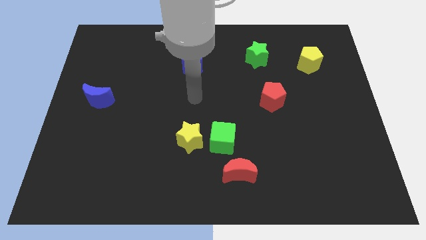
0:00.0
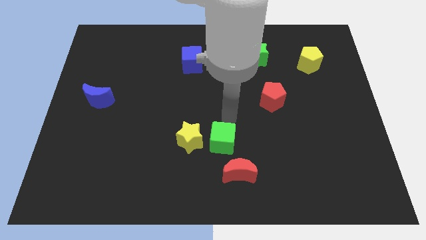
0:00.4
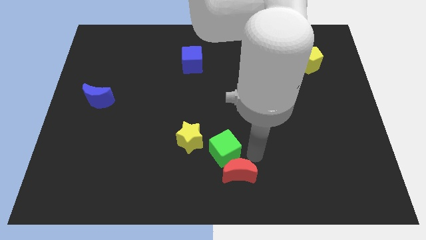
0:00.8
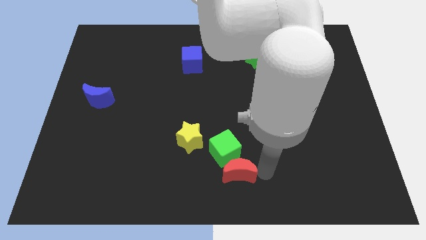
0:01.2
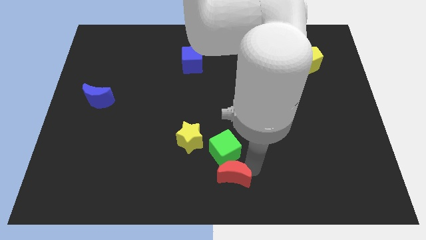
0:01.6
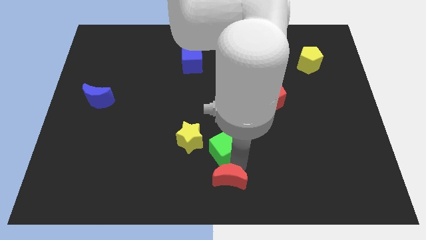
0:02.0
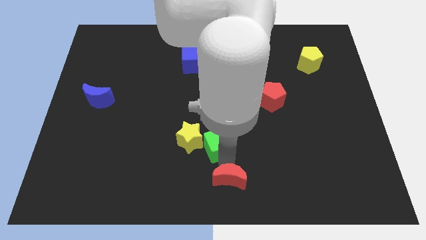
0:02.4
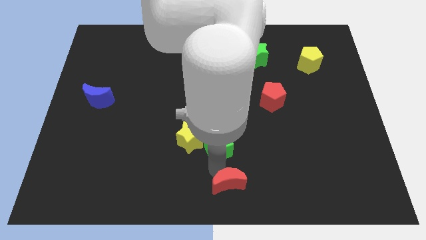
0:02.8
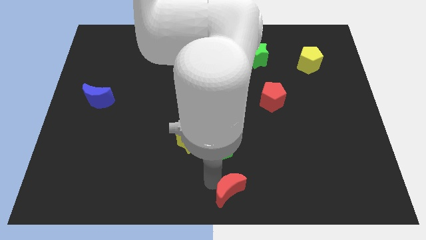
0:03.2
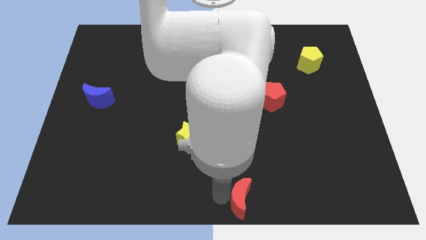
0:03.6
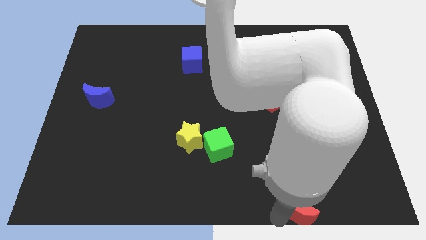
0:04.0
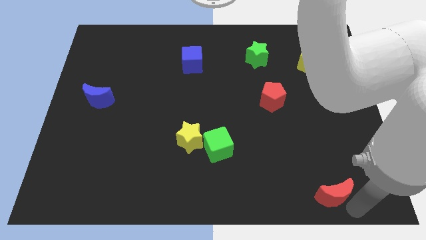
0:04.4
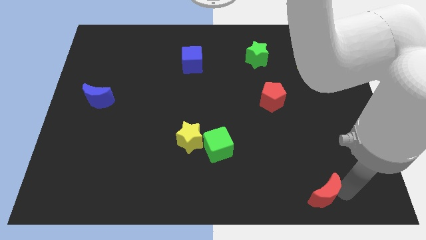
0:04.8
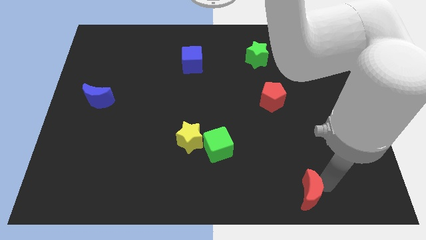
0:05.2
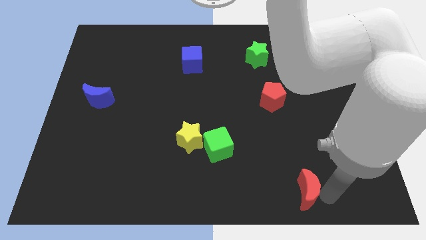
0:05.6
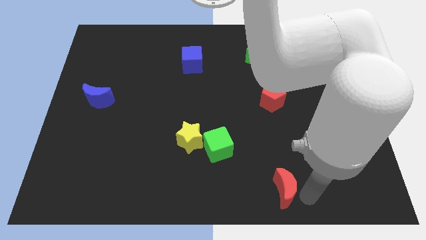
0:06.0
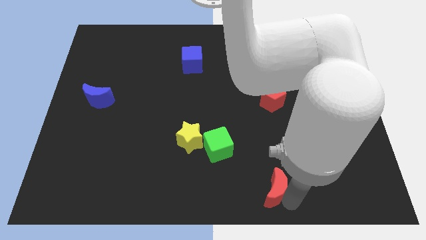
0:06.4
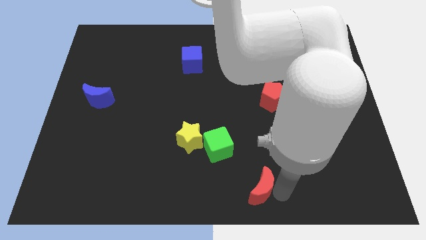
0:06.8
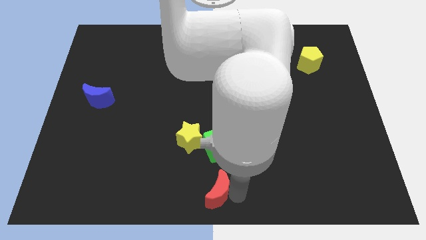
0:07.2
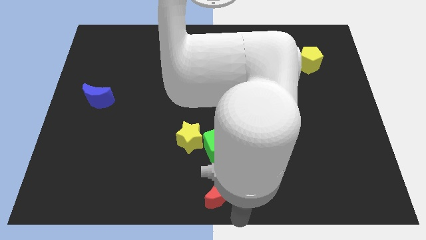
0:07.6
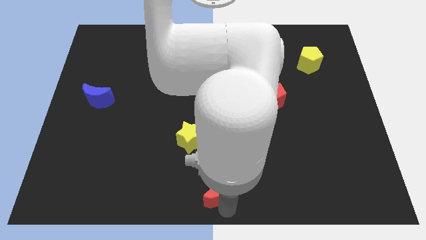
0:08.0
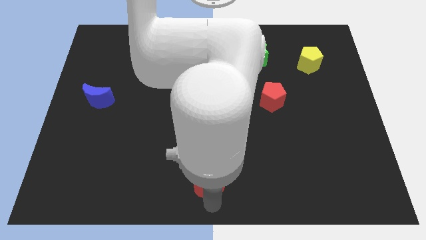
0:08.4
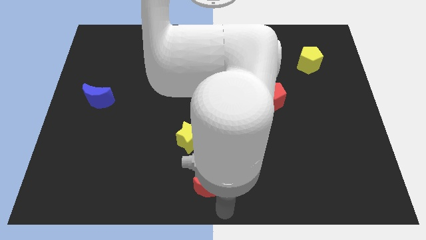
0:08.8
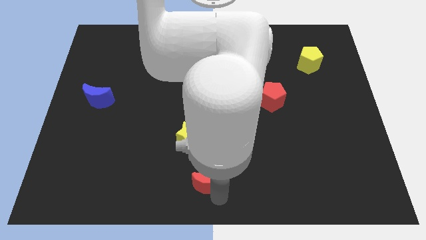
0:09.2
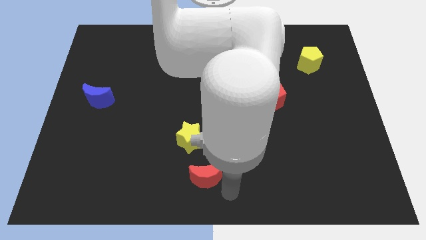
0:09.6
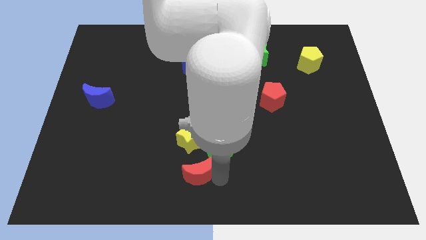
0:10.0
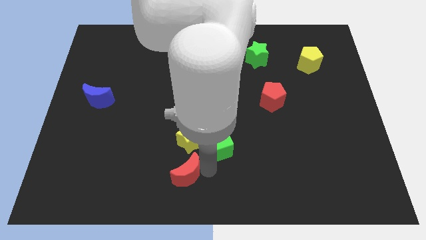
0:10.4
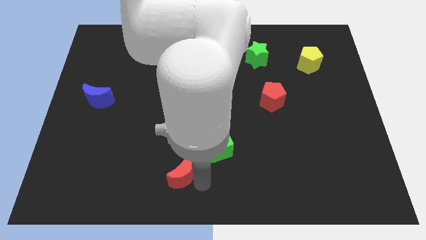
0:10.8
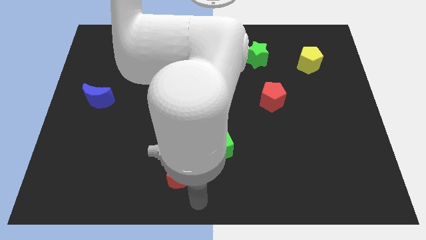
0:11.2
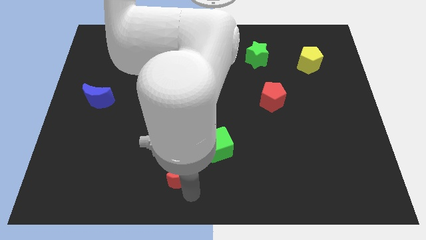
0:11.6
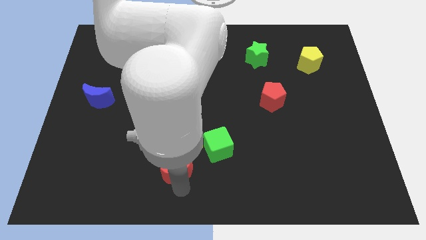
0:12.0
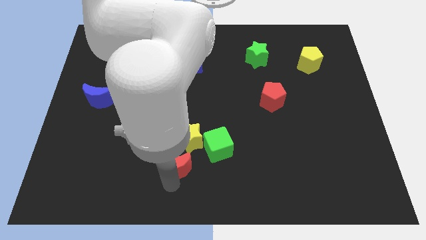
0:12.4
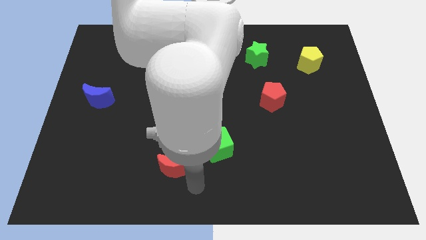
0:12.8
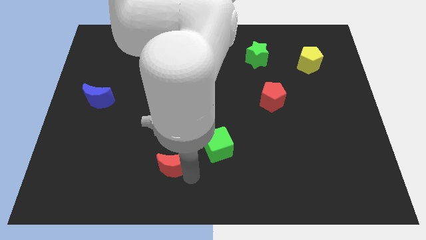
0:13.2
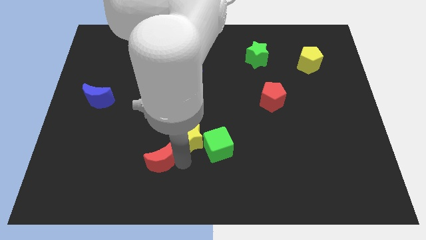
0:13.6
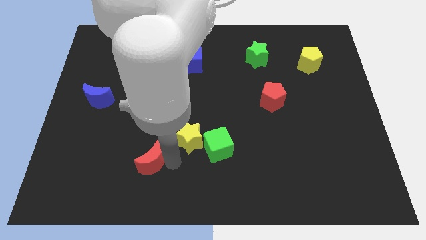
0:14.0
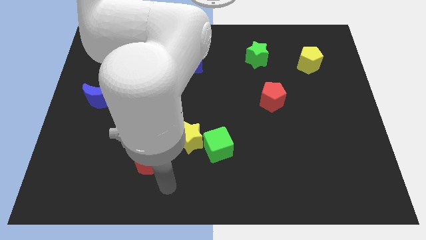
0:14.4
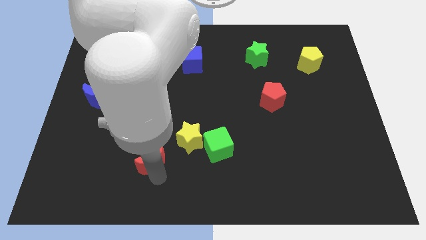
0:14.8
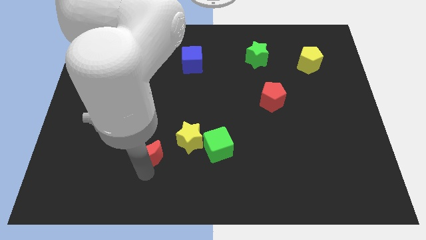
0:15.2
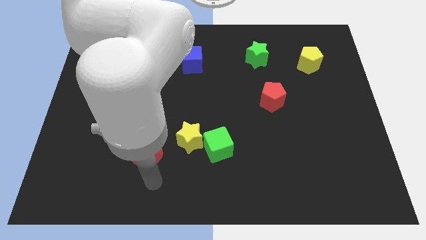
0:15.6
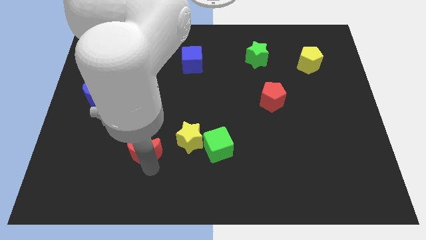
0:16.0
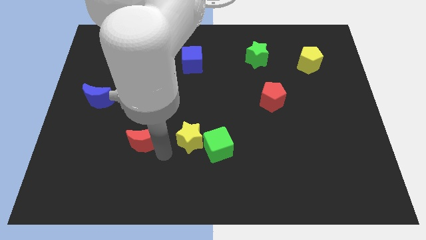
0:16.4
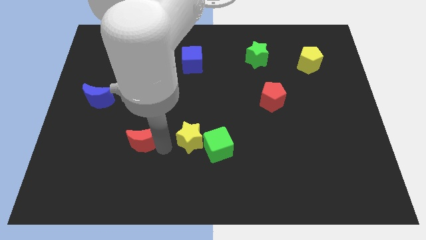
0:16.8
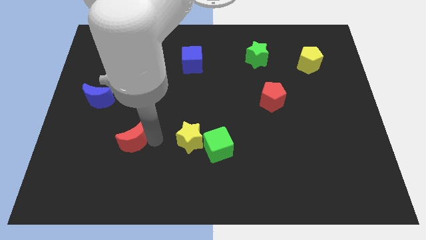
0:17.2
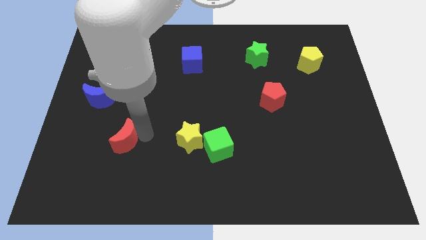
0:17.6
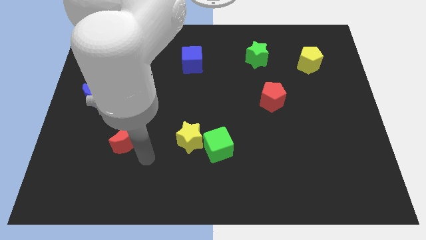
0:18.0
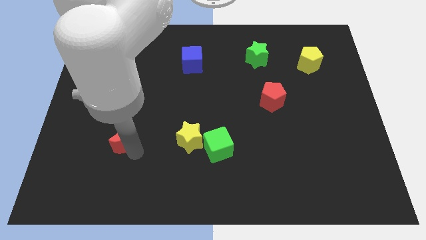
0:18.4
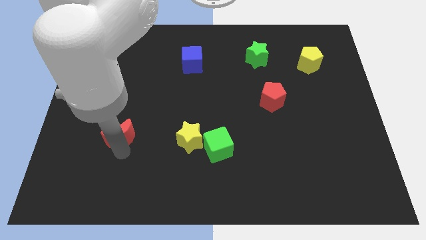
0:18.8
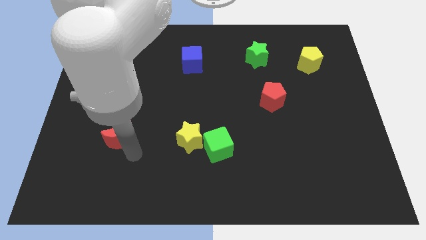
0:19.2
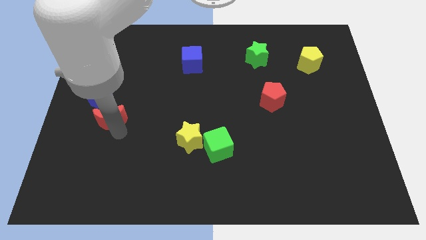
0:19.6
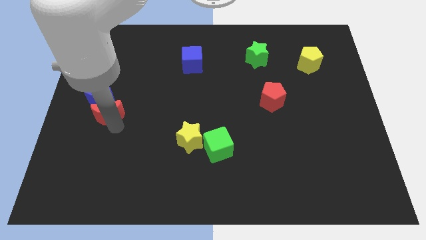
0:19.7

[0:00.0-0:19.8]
push the red moon to the blue moon

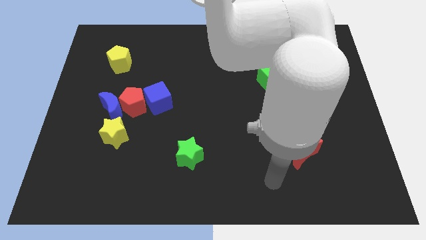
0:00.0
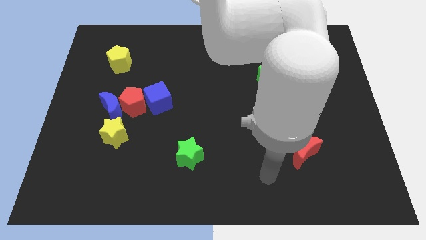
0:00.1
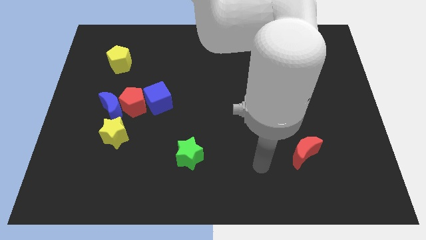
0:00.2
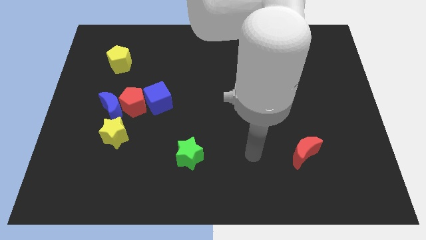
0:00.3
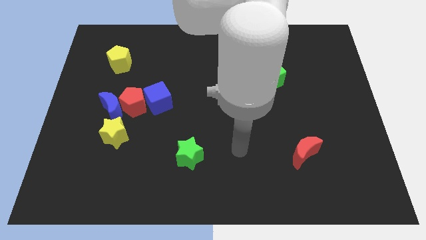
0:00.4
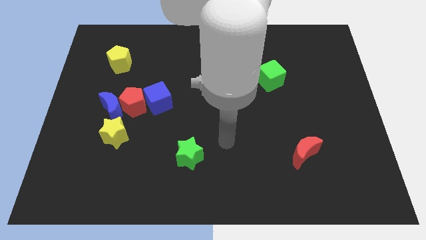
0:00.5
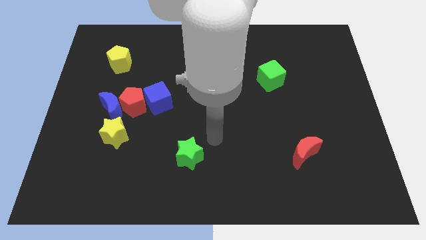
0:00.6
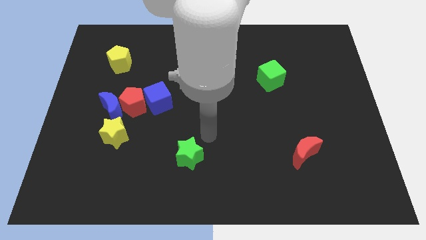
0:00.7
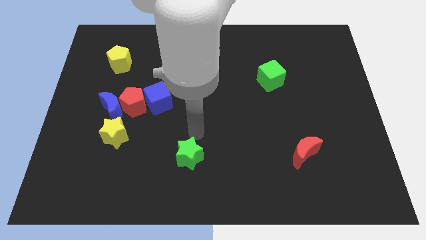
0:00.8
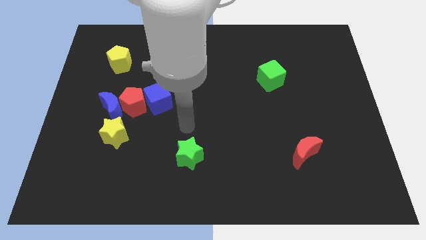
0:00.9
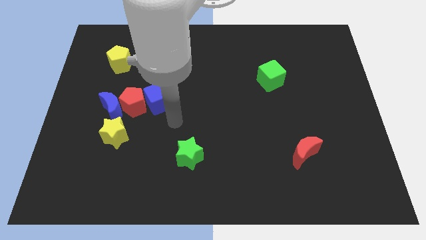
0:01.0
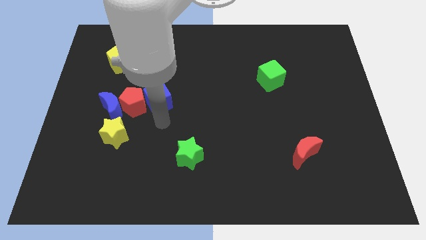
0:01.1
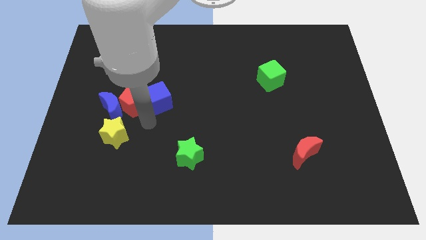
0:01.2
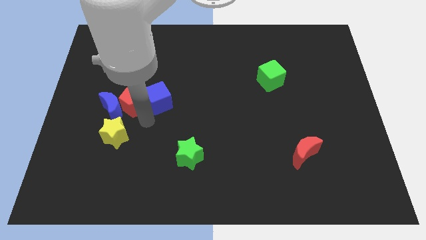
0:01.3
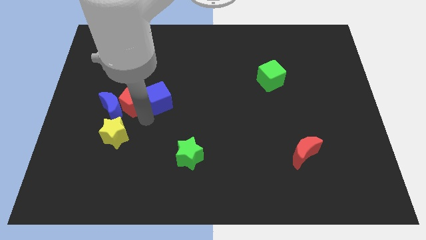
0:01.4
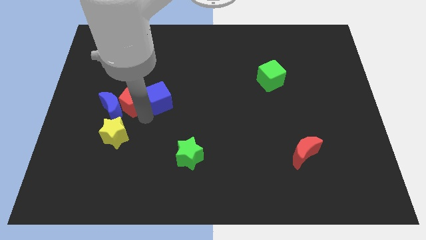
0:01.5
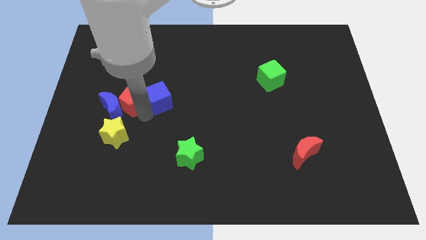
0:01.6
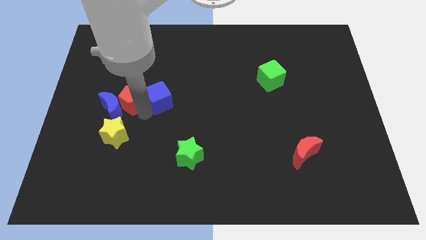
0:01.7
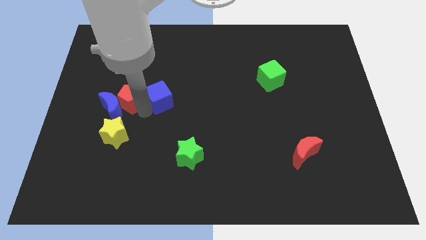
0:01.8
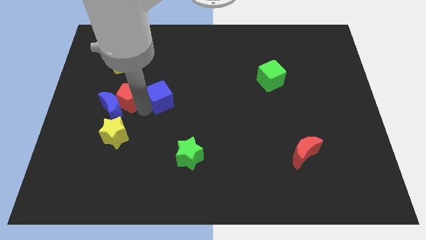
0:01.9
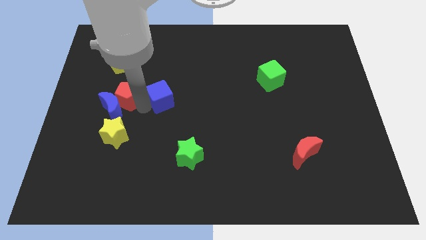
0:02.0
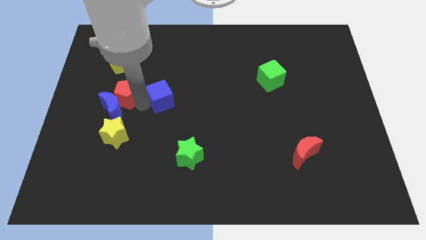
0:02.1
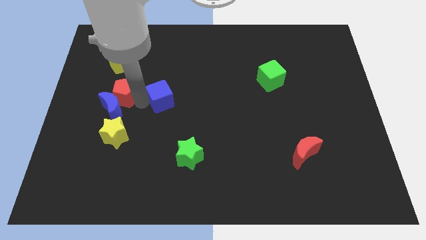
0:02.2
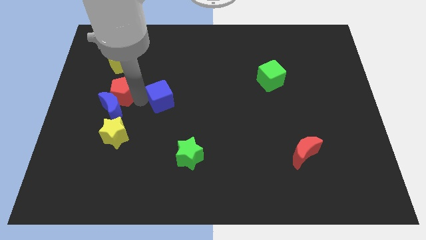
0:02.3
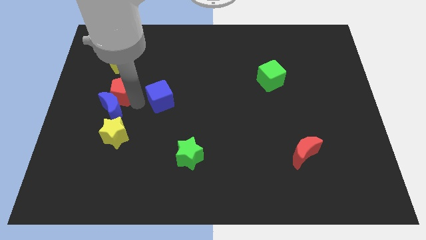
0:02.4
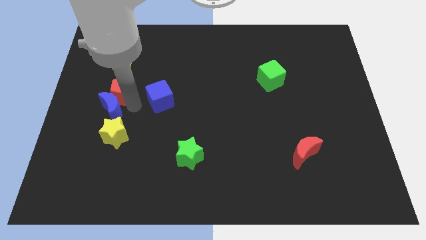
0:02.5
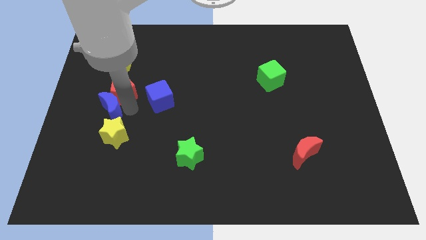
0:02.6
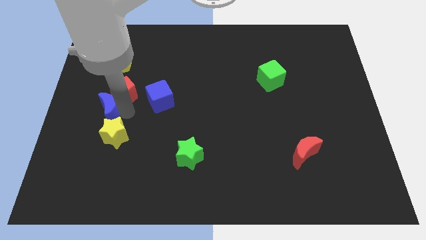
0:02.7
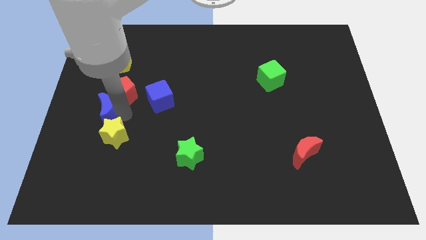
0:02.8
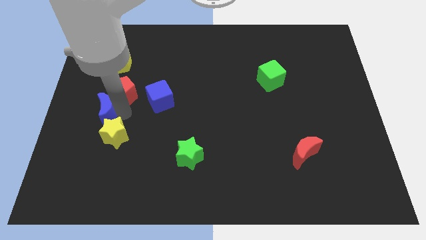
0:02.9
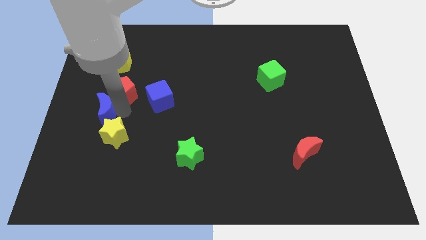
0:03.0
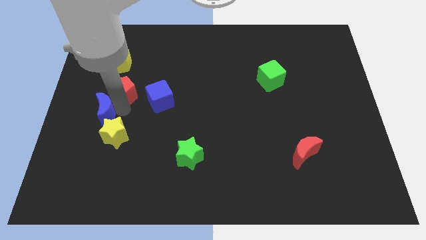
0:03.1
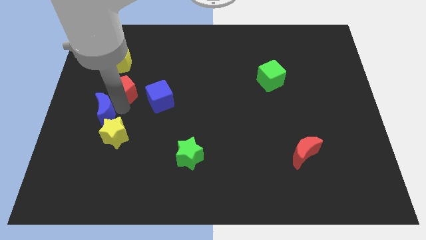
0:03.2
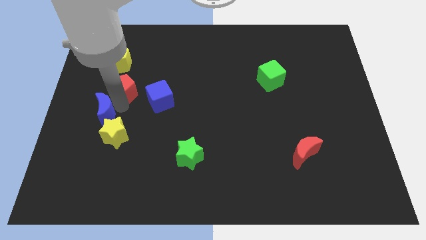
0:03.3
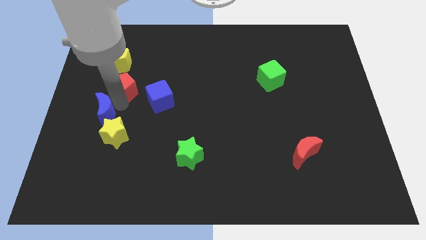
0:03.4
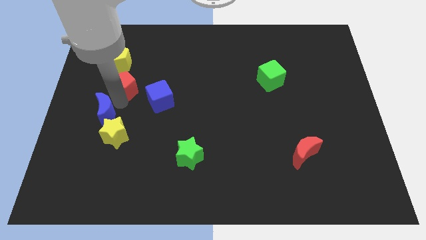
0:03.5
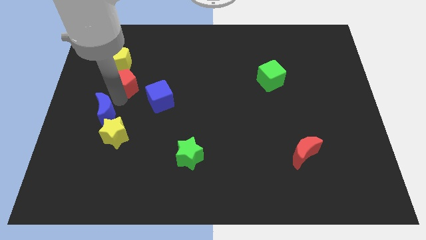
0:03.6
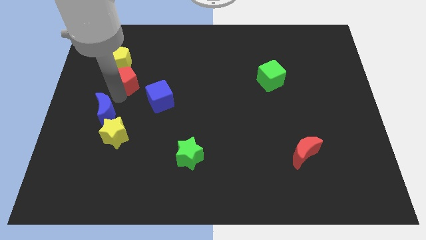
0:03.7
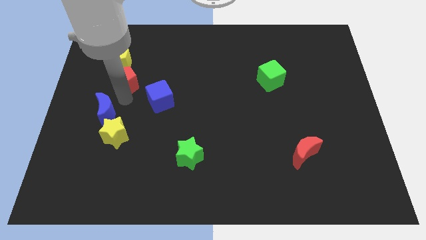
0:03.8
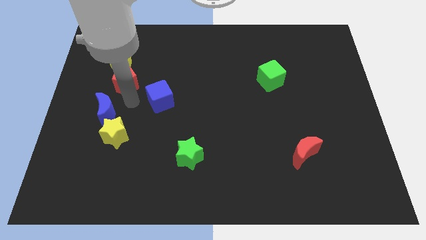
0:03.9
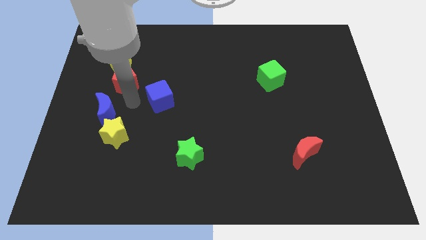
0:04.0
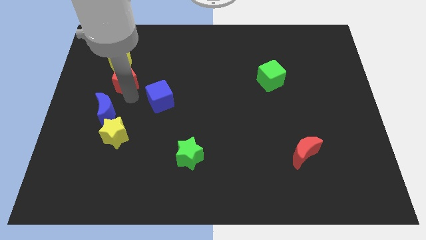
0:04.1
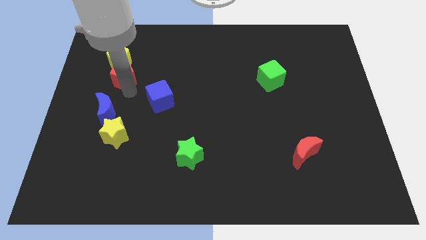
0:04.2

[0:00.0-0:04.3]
push the red pentagon to the yellow pentagon
